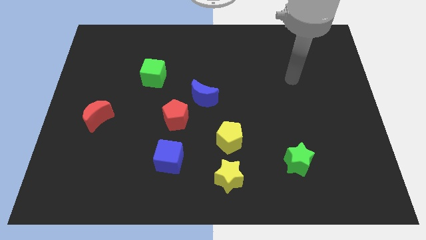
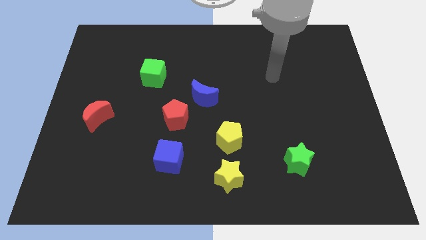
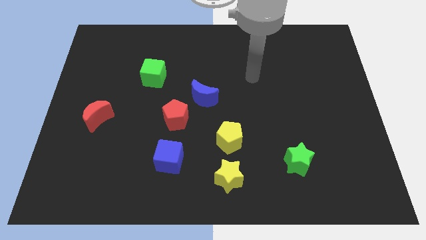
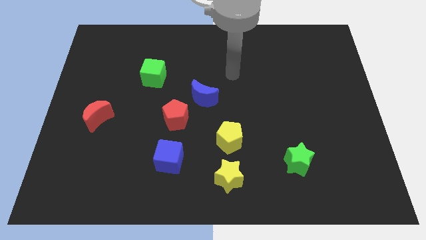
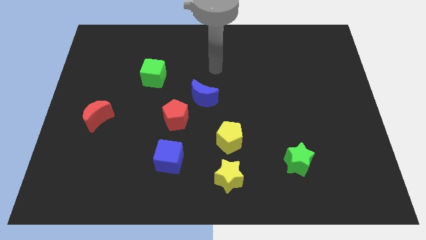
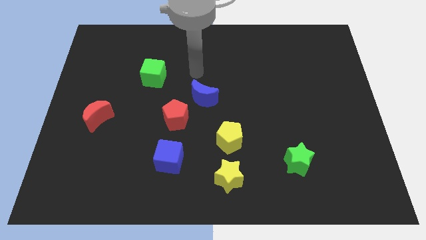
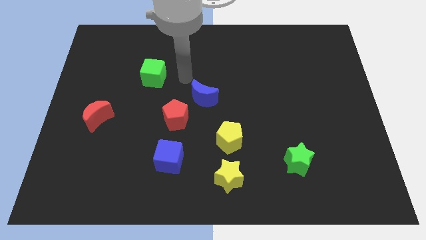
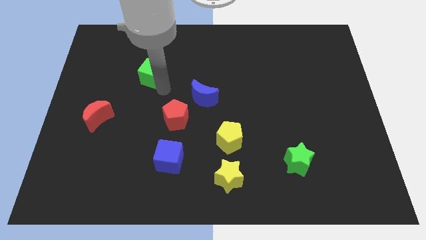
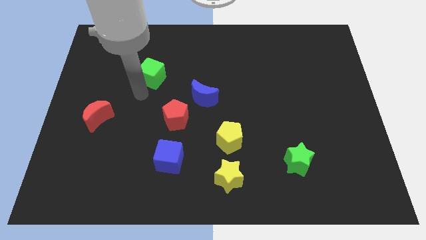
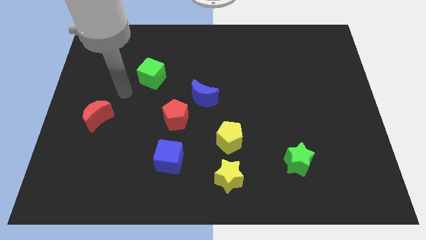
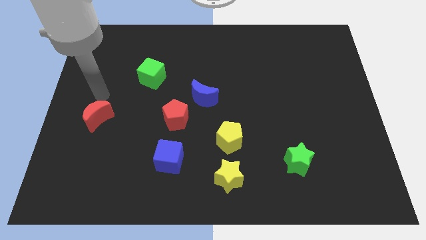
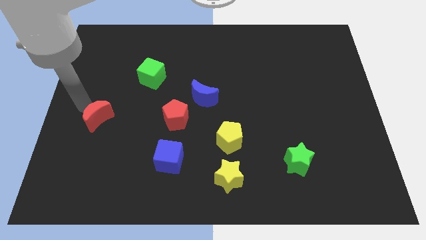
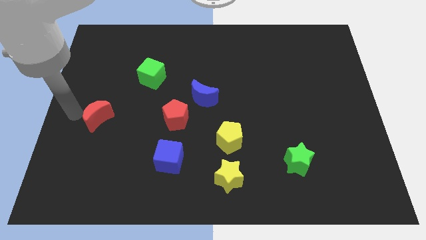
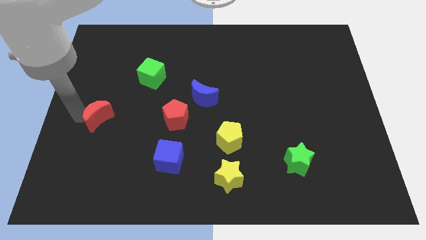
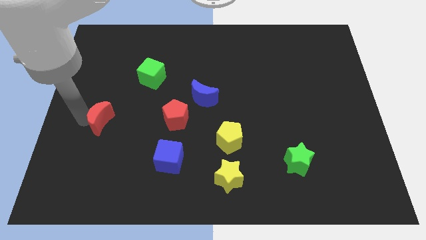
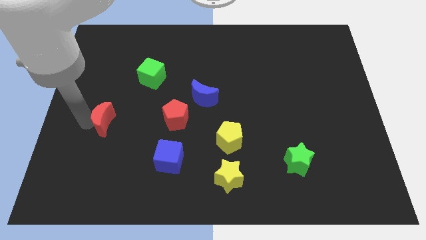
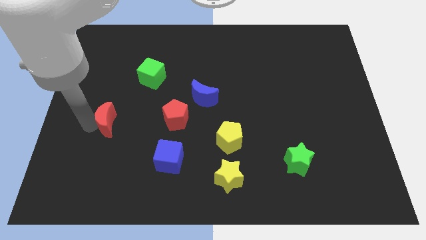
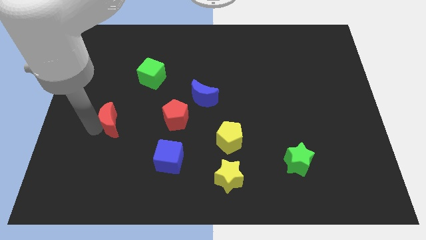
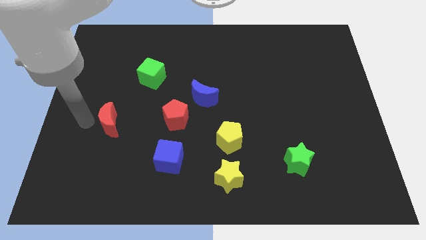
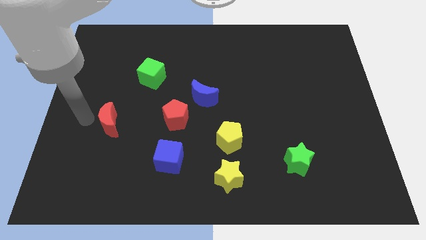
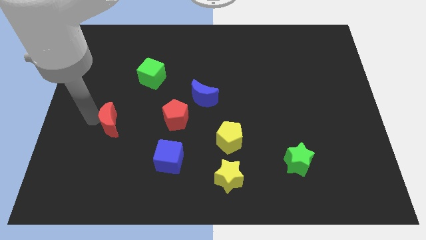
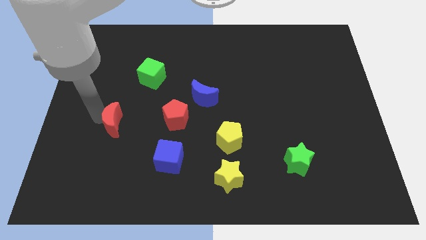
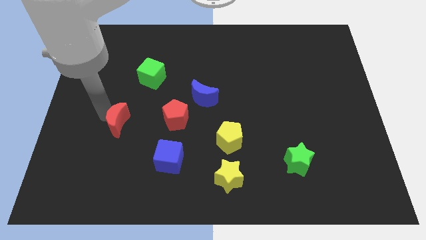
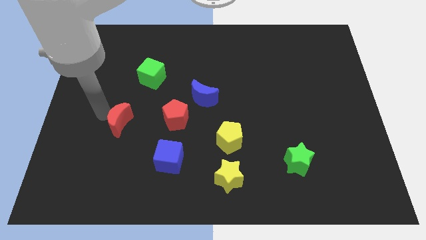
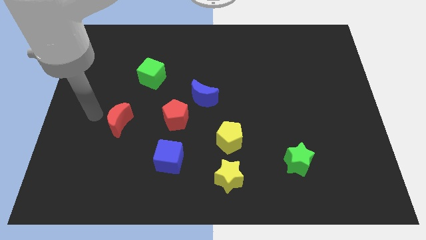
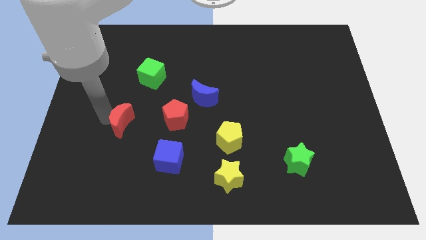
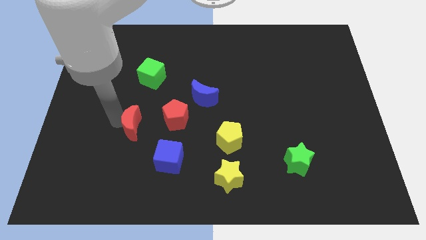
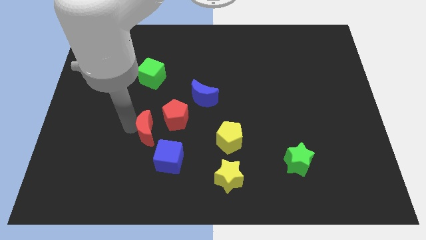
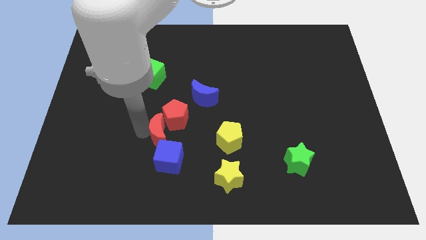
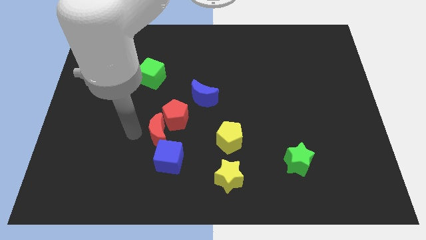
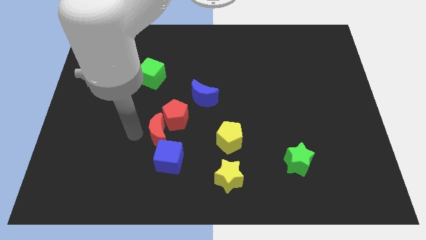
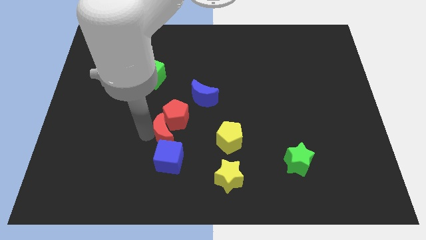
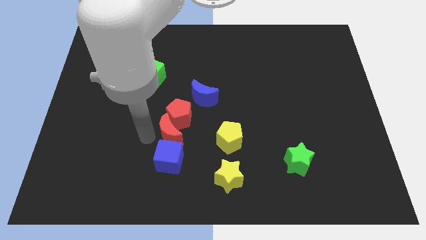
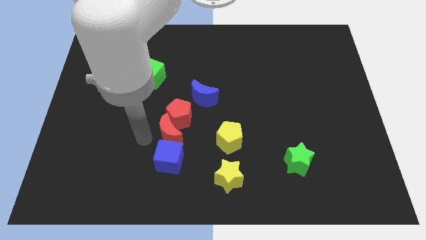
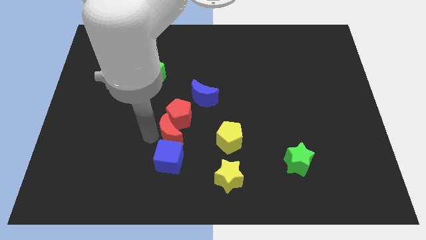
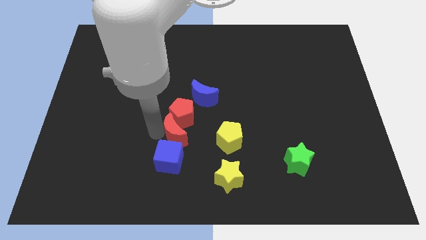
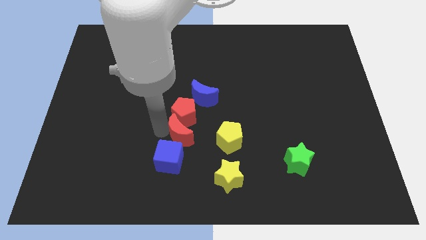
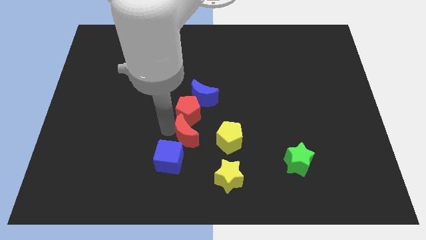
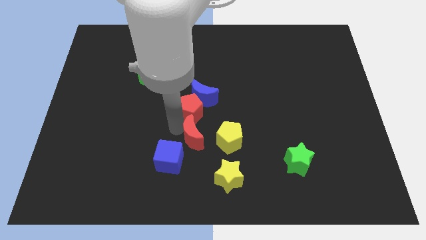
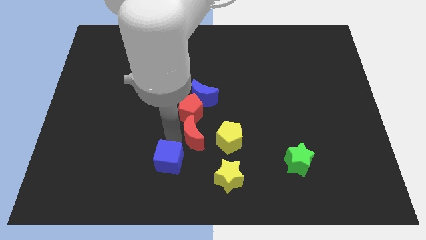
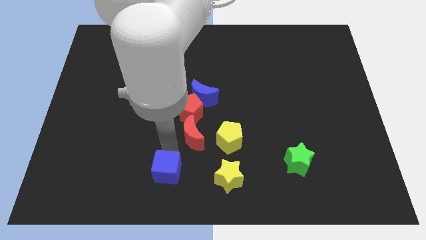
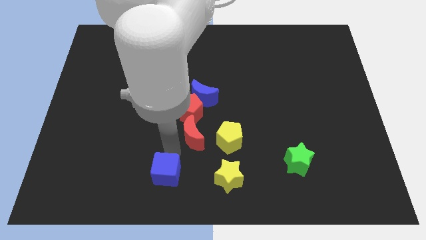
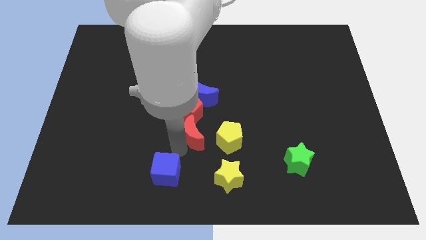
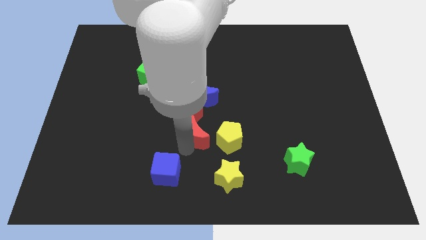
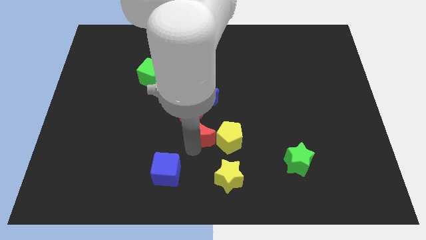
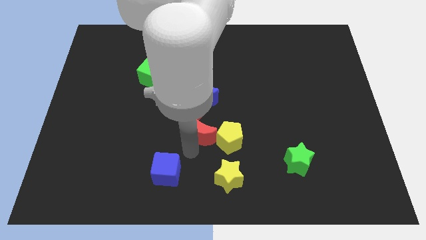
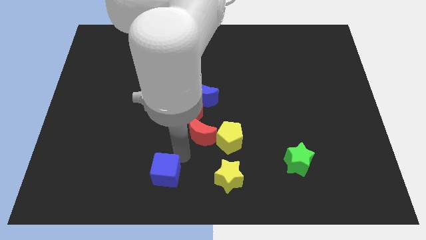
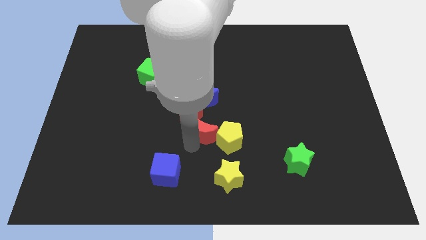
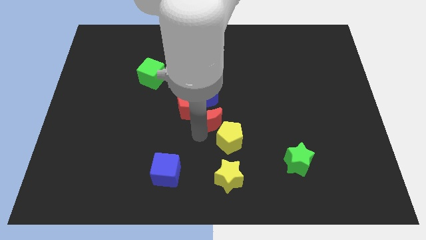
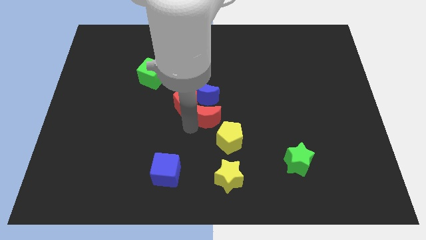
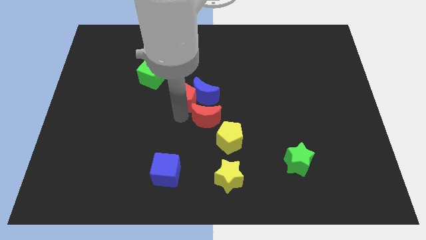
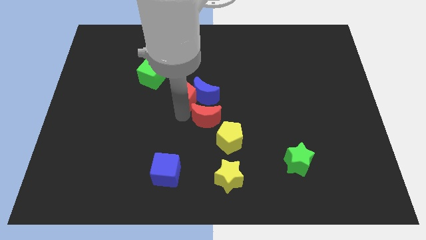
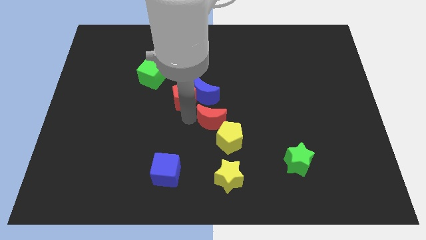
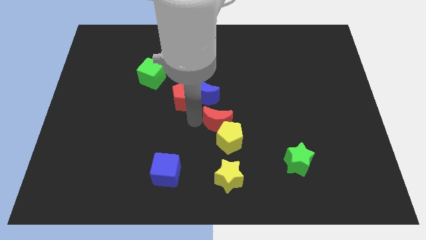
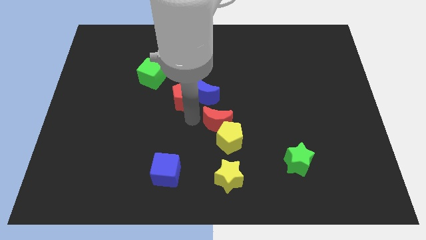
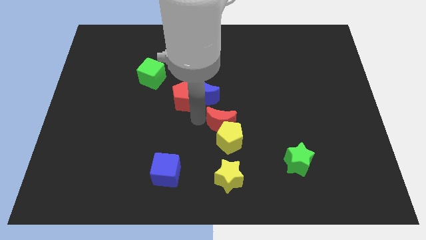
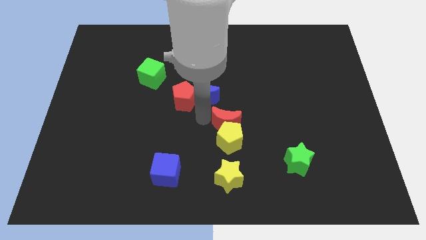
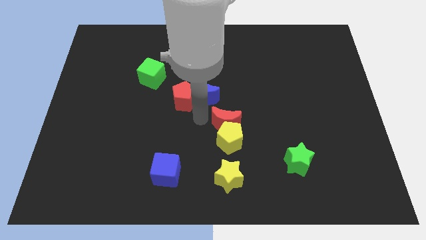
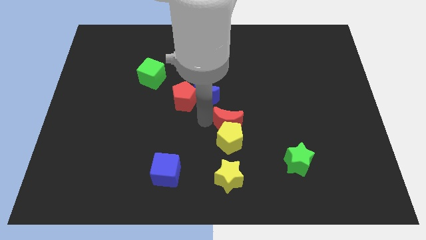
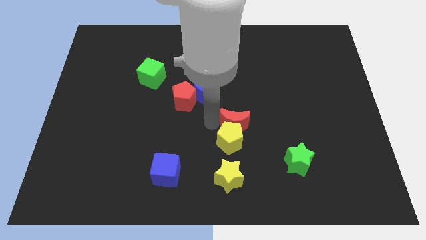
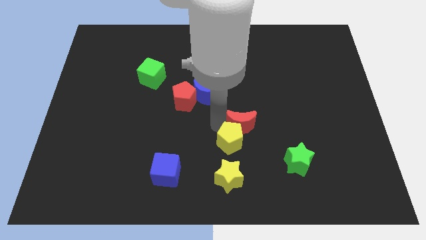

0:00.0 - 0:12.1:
put the red moon right of the yellow pentagon
